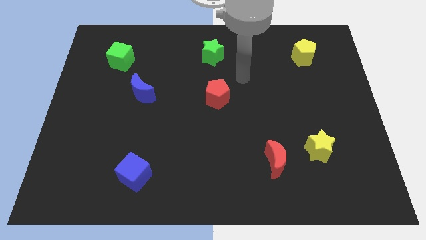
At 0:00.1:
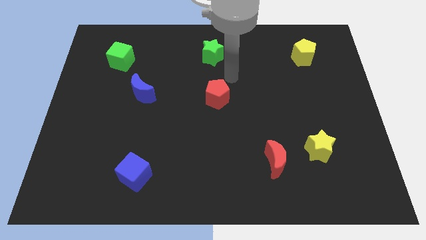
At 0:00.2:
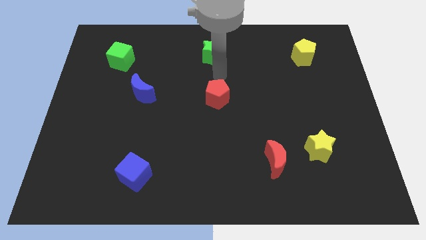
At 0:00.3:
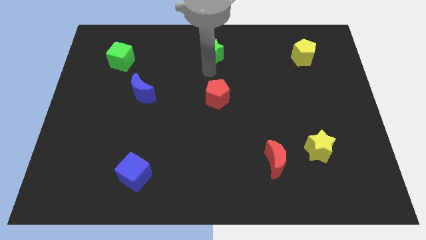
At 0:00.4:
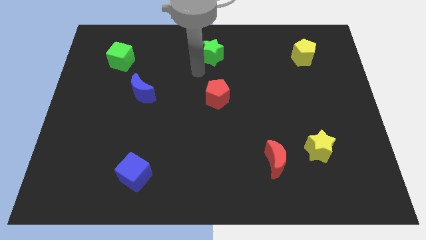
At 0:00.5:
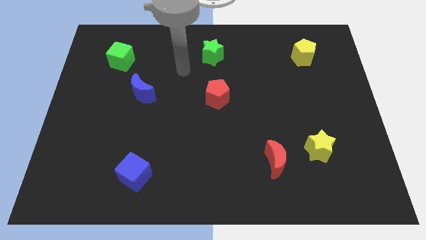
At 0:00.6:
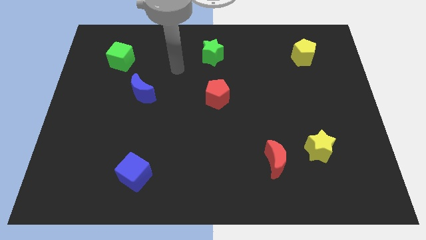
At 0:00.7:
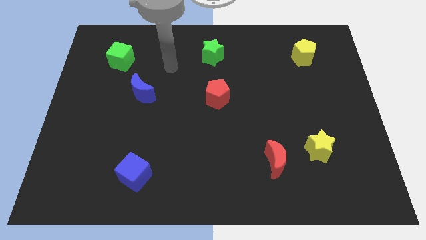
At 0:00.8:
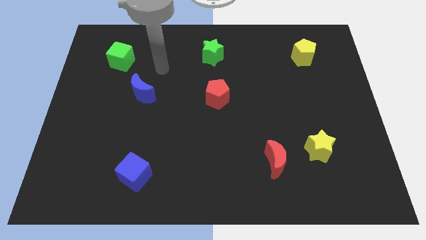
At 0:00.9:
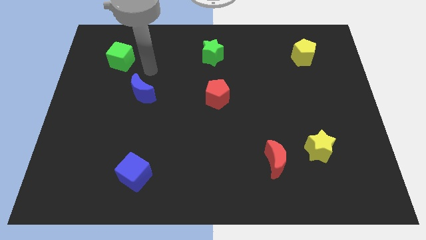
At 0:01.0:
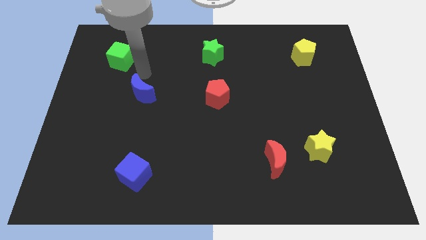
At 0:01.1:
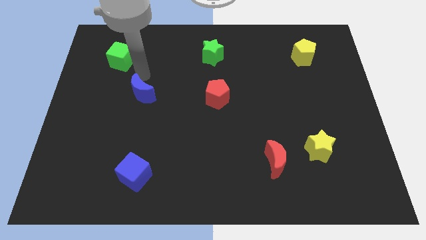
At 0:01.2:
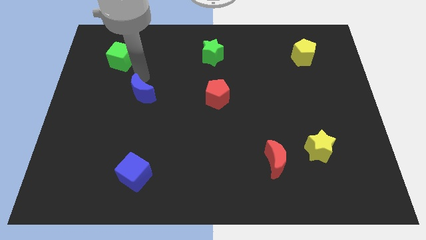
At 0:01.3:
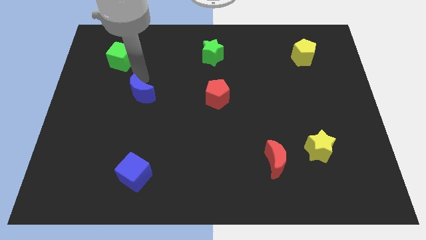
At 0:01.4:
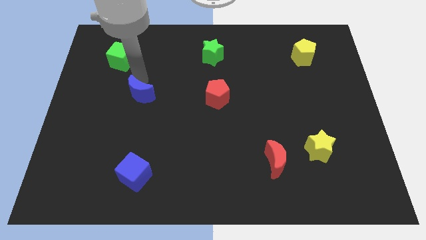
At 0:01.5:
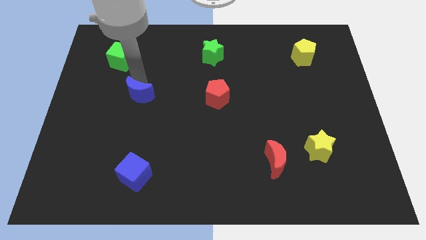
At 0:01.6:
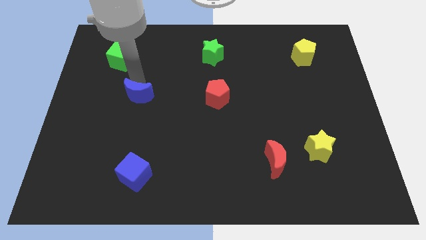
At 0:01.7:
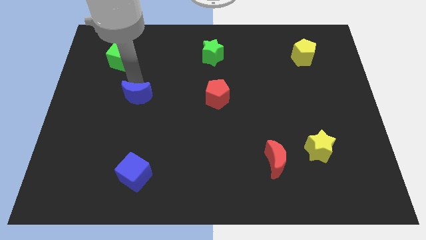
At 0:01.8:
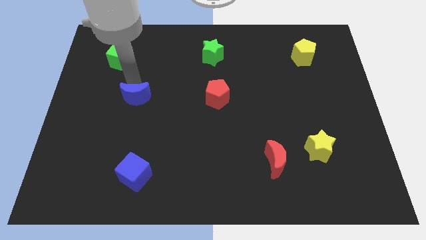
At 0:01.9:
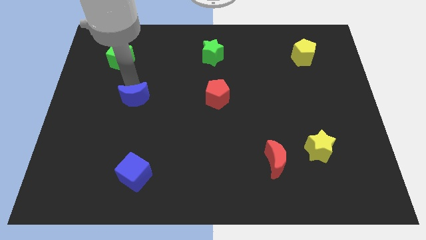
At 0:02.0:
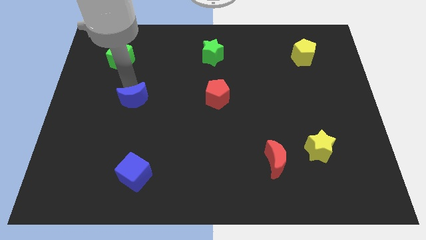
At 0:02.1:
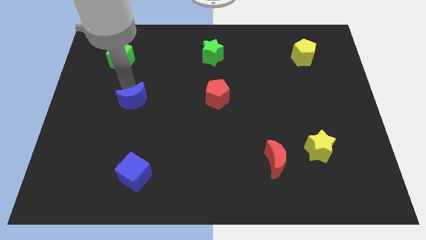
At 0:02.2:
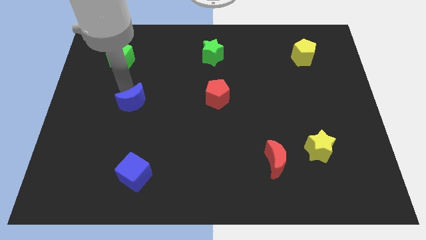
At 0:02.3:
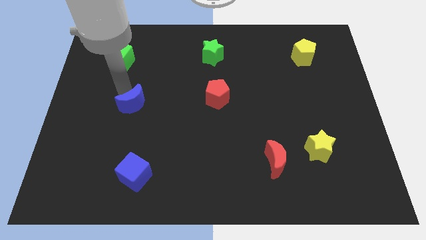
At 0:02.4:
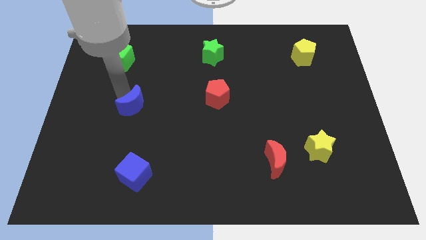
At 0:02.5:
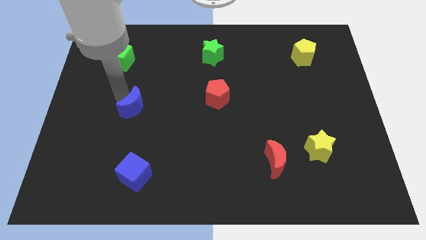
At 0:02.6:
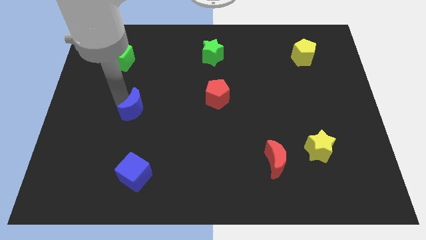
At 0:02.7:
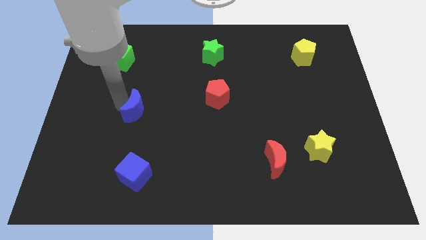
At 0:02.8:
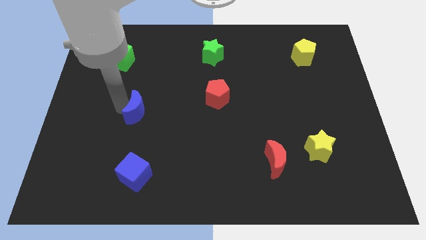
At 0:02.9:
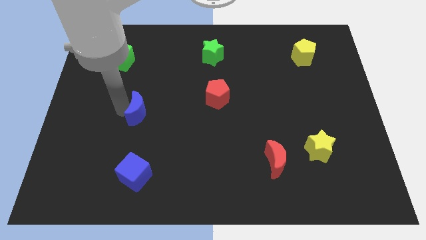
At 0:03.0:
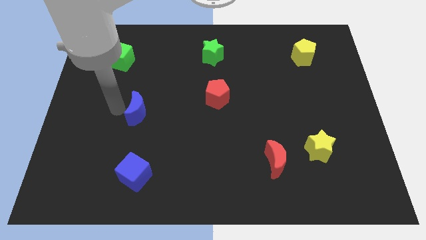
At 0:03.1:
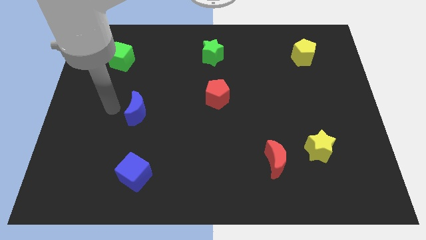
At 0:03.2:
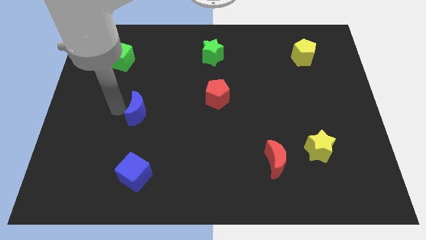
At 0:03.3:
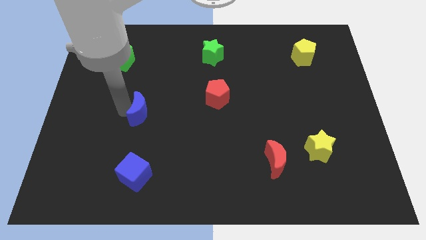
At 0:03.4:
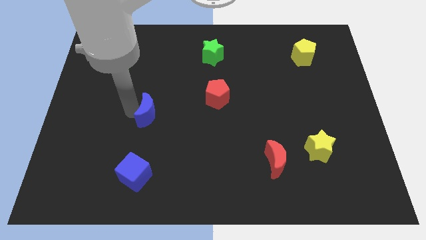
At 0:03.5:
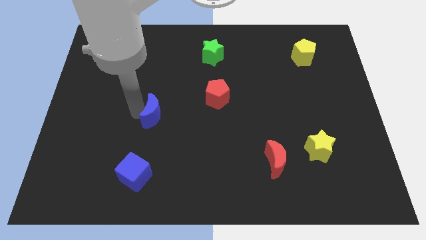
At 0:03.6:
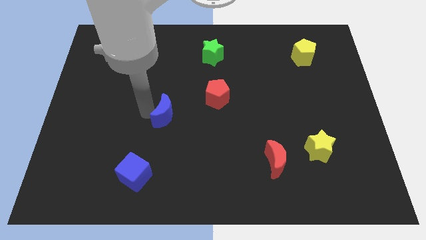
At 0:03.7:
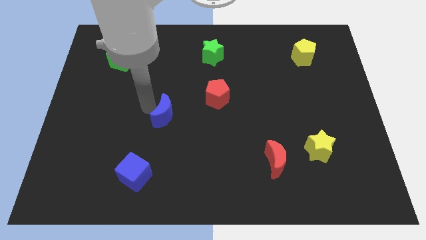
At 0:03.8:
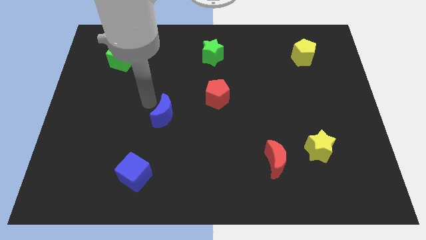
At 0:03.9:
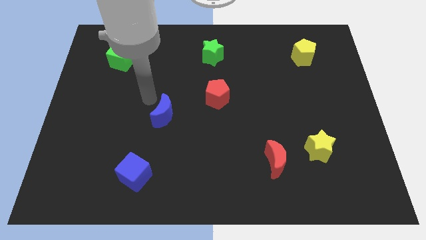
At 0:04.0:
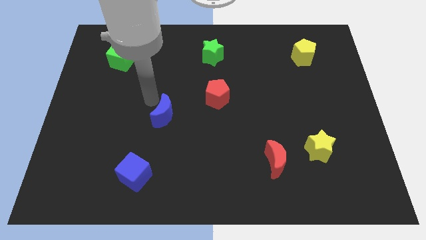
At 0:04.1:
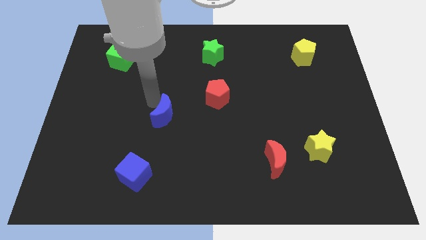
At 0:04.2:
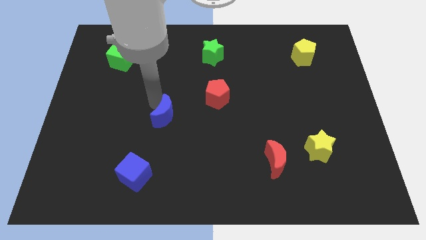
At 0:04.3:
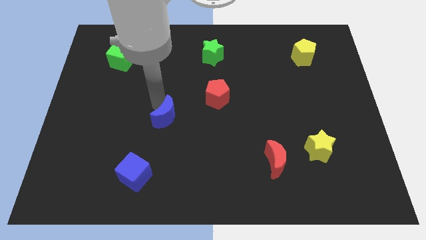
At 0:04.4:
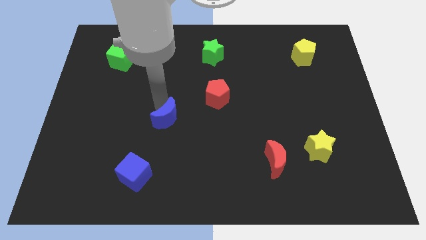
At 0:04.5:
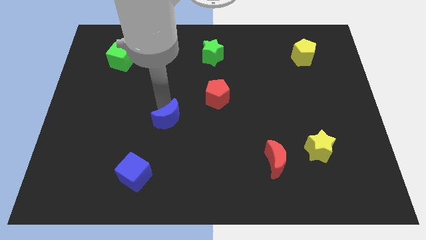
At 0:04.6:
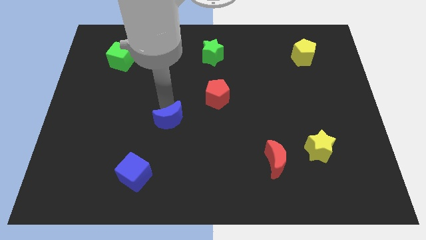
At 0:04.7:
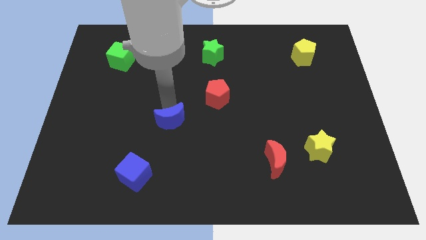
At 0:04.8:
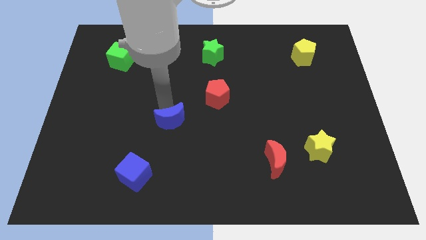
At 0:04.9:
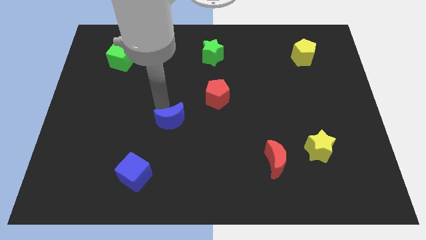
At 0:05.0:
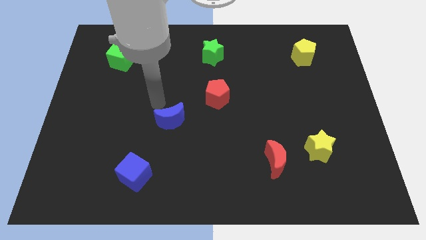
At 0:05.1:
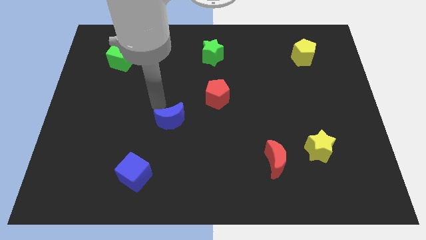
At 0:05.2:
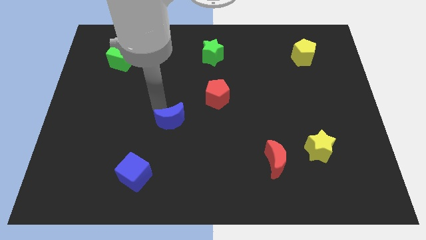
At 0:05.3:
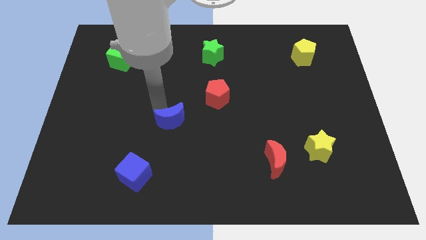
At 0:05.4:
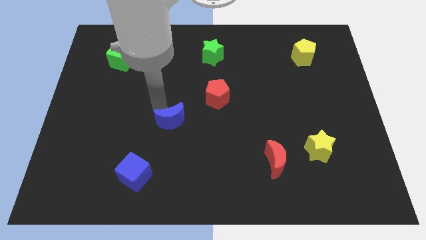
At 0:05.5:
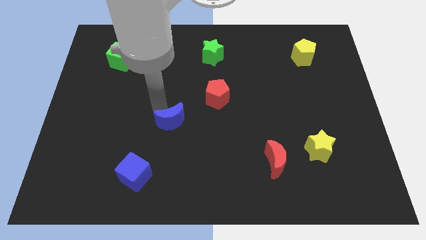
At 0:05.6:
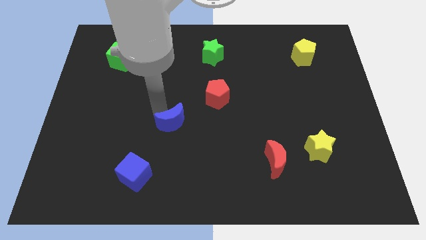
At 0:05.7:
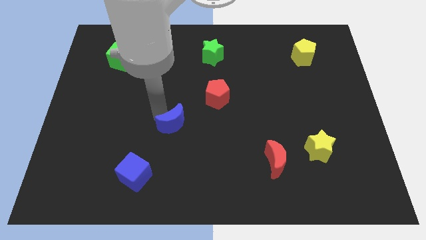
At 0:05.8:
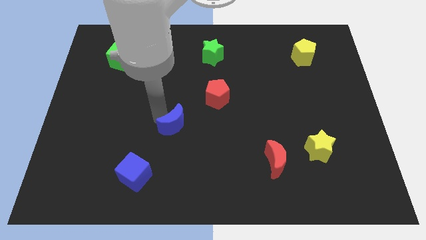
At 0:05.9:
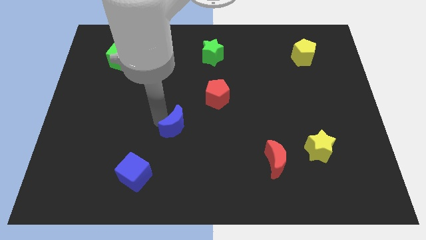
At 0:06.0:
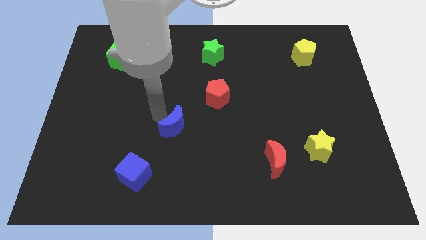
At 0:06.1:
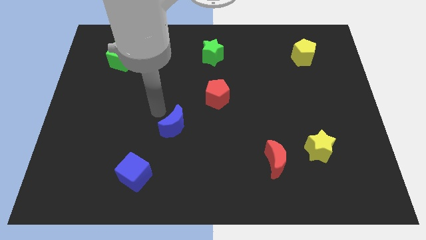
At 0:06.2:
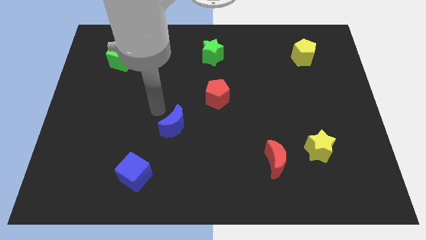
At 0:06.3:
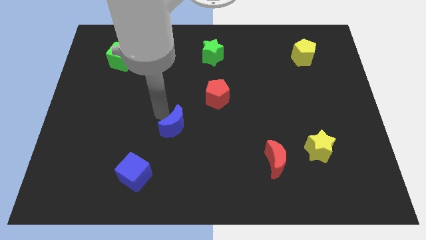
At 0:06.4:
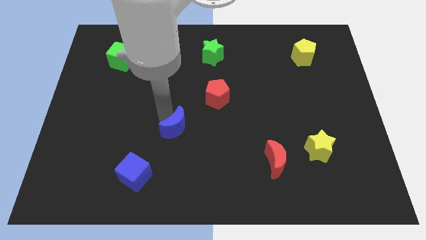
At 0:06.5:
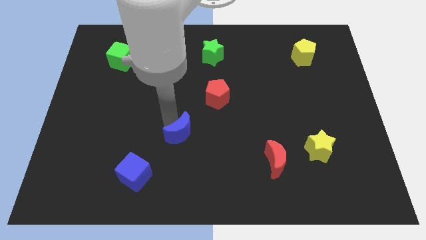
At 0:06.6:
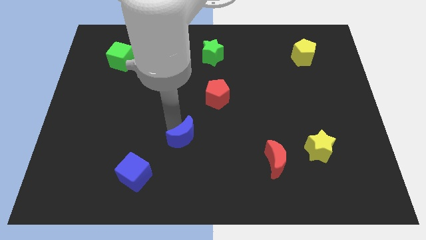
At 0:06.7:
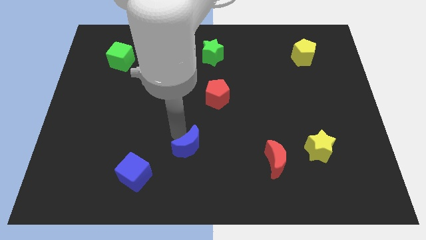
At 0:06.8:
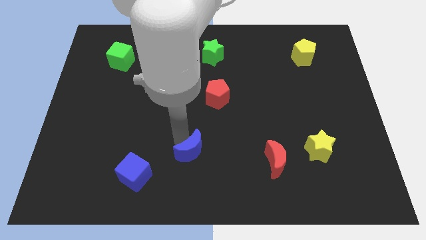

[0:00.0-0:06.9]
slide the blue moon downwards and right

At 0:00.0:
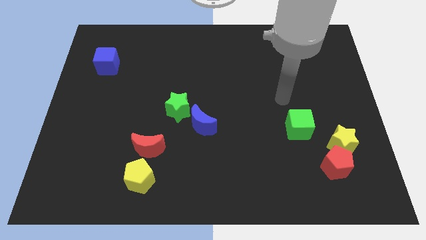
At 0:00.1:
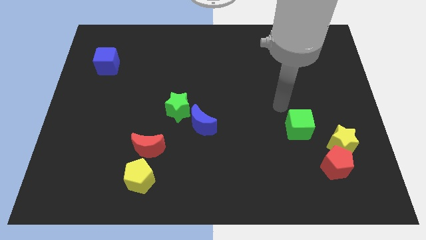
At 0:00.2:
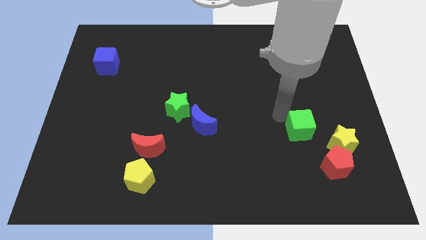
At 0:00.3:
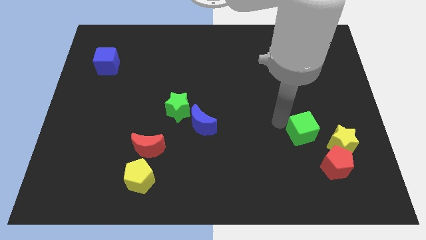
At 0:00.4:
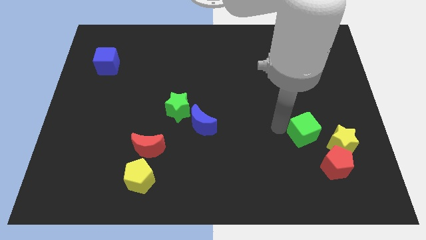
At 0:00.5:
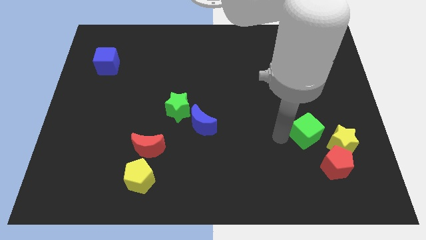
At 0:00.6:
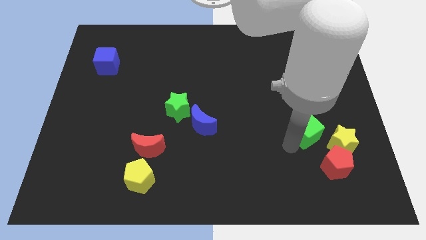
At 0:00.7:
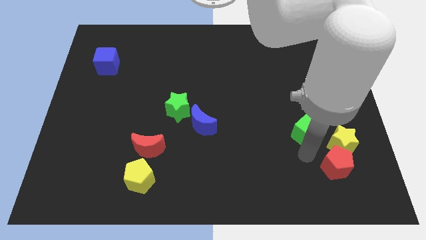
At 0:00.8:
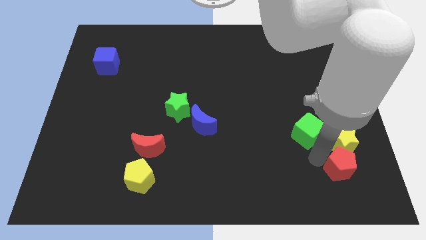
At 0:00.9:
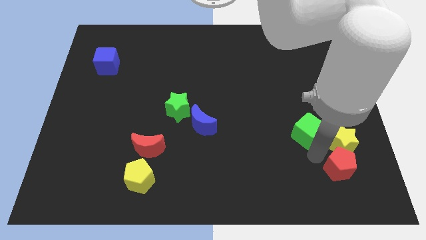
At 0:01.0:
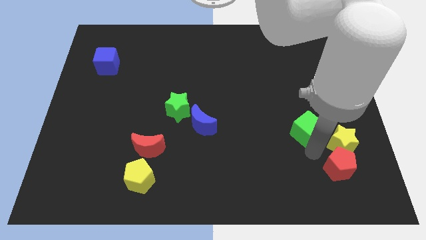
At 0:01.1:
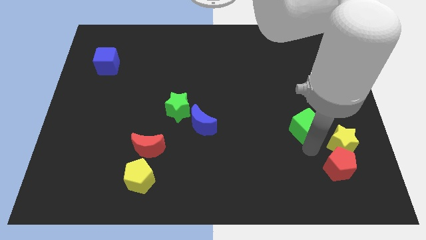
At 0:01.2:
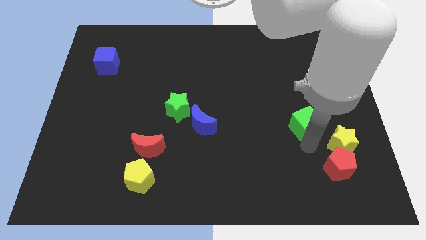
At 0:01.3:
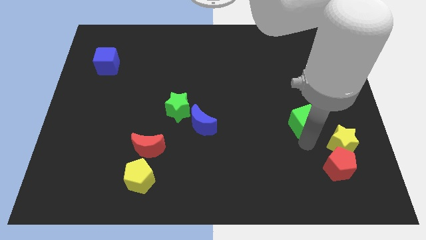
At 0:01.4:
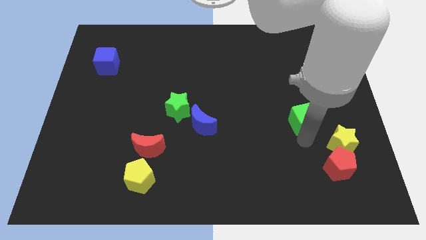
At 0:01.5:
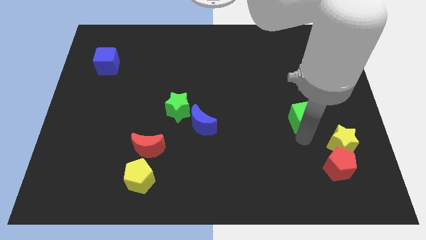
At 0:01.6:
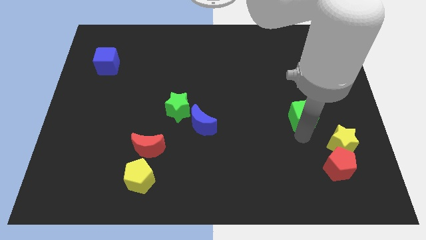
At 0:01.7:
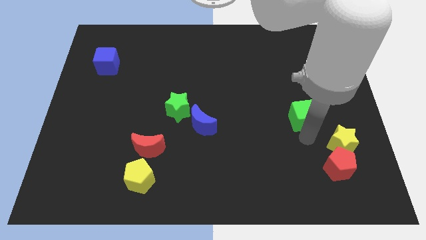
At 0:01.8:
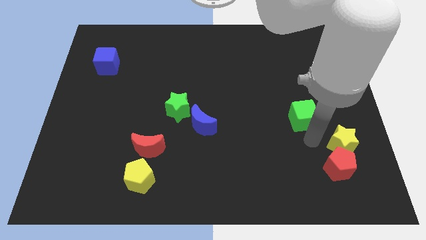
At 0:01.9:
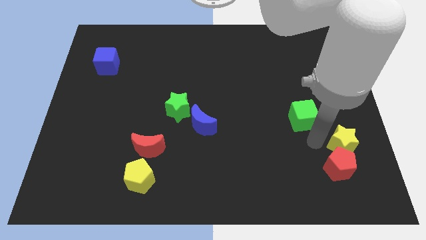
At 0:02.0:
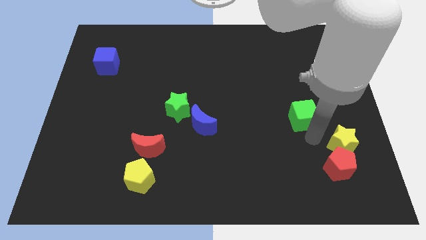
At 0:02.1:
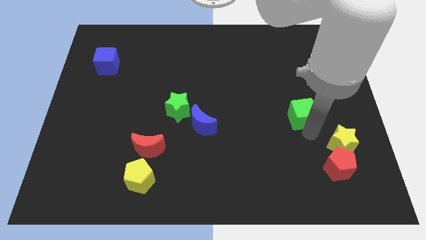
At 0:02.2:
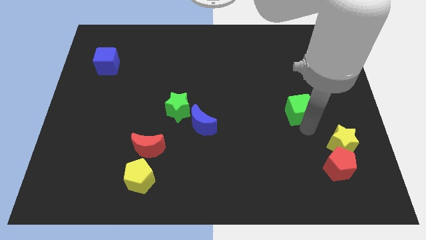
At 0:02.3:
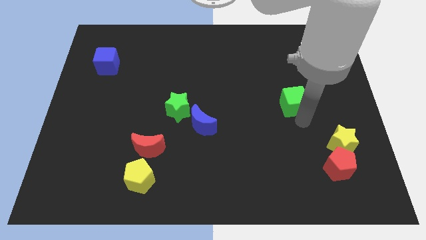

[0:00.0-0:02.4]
push the green cube a little upwards
